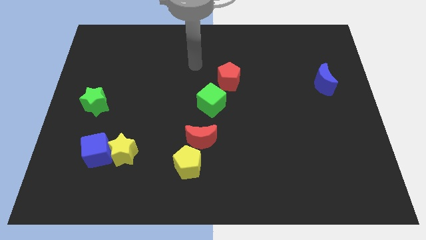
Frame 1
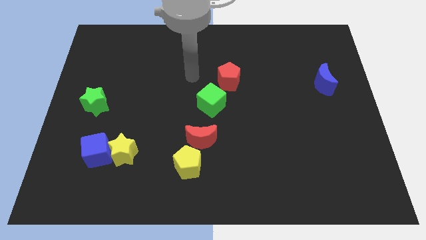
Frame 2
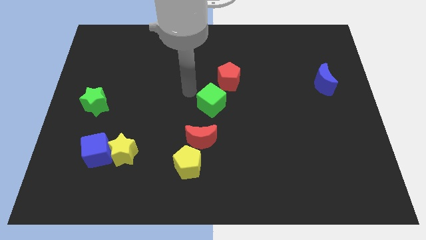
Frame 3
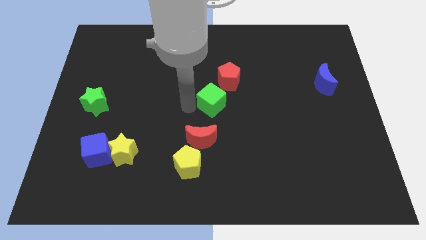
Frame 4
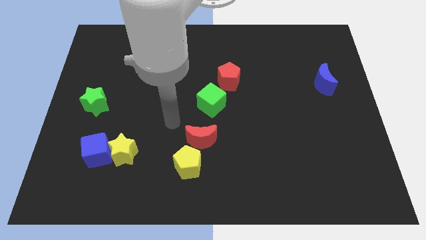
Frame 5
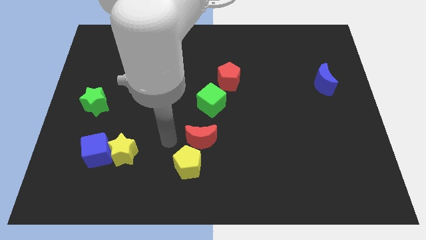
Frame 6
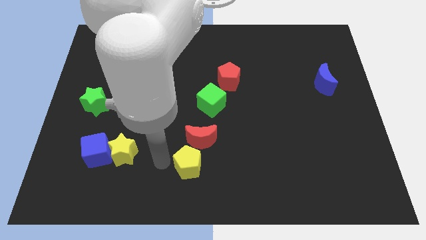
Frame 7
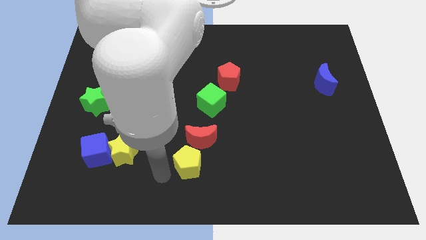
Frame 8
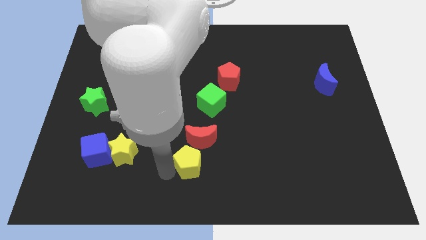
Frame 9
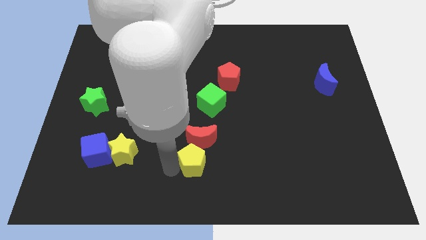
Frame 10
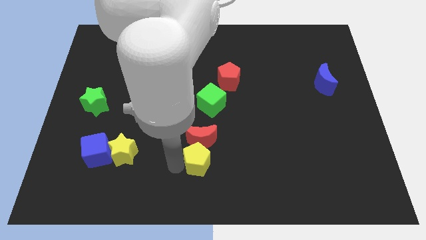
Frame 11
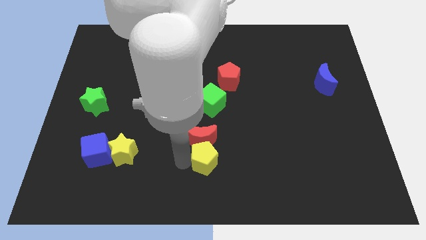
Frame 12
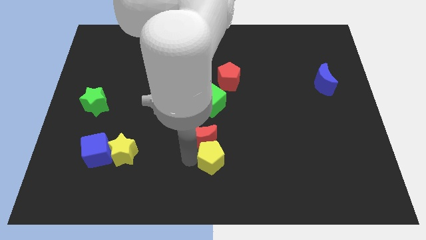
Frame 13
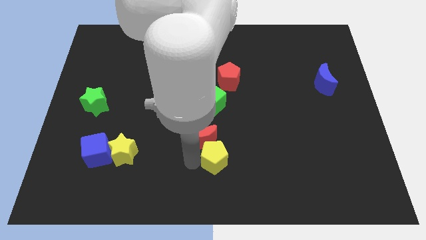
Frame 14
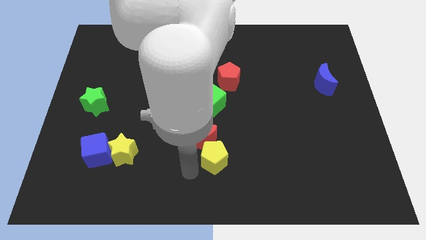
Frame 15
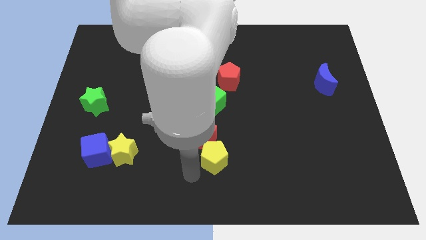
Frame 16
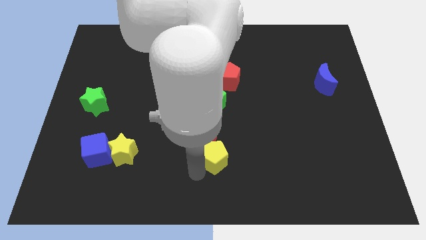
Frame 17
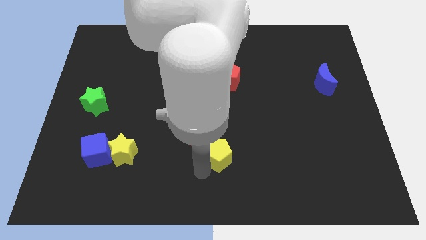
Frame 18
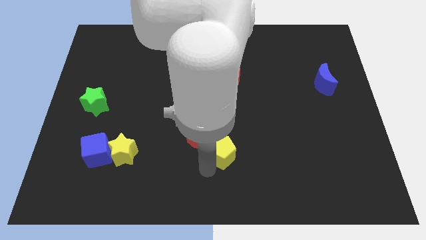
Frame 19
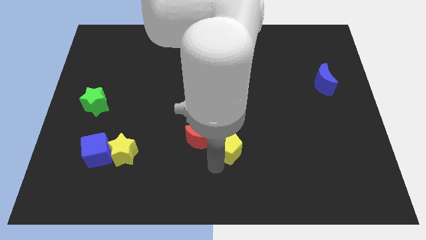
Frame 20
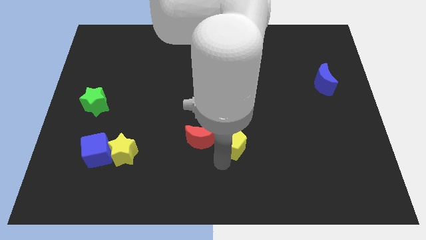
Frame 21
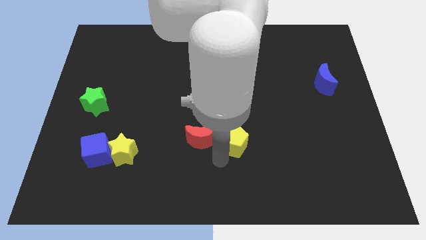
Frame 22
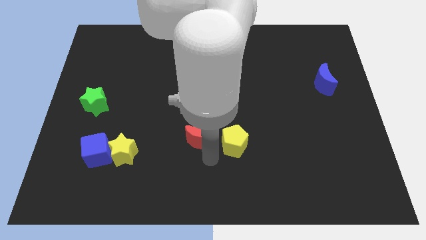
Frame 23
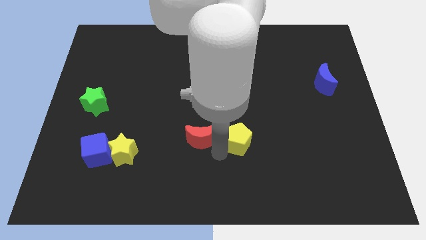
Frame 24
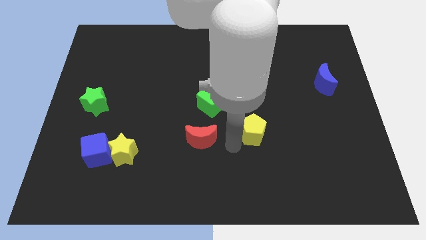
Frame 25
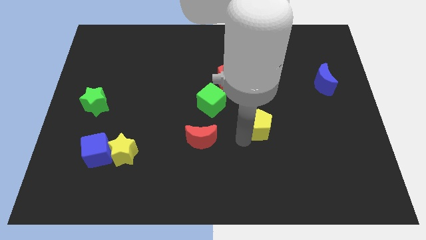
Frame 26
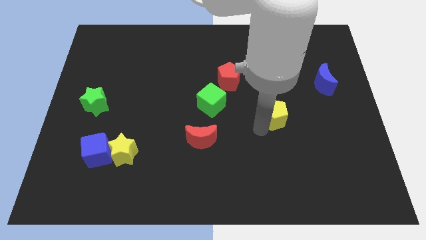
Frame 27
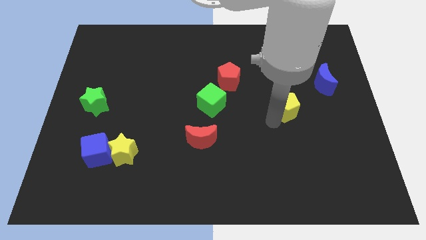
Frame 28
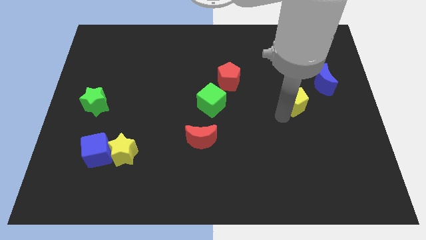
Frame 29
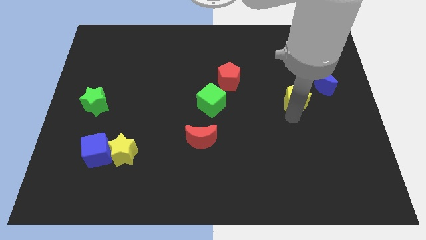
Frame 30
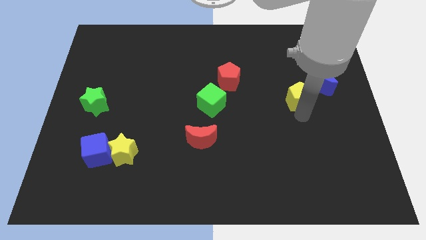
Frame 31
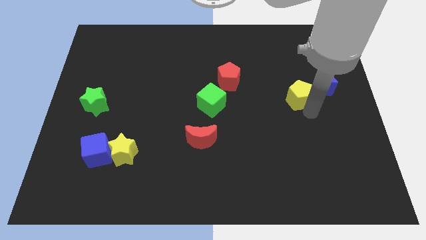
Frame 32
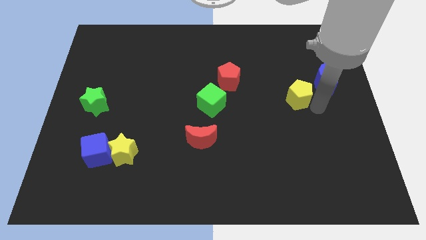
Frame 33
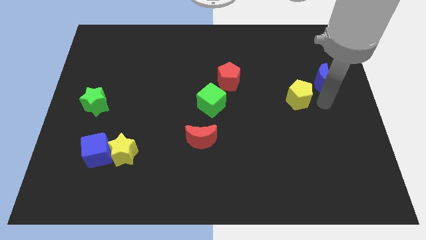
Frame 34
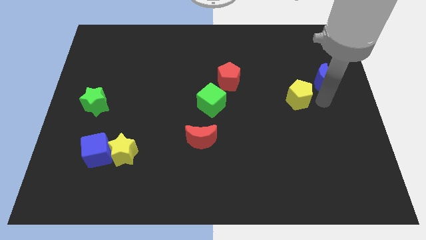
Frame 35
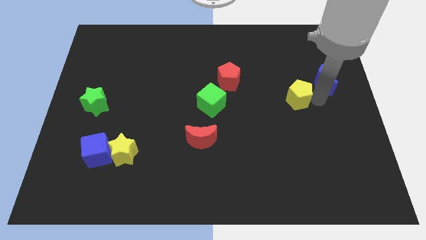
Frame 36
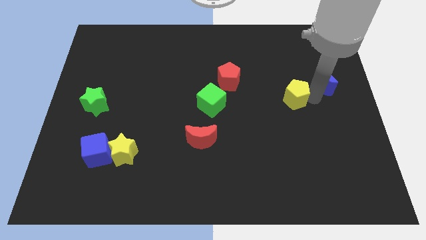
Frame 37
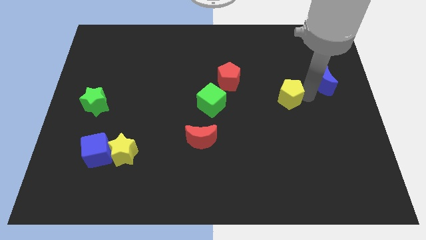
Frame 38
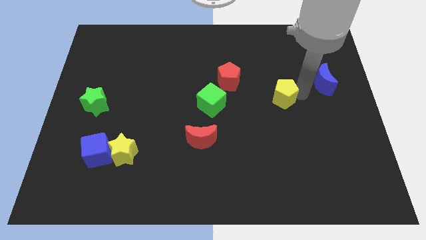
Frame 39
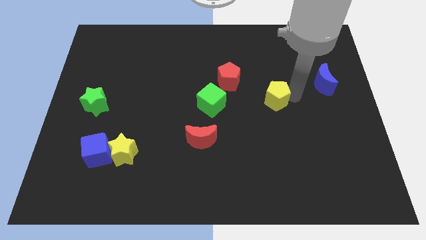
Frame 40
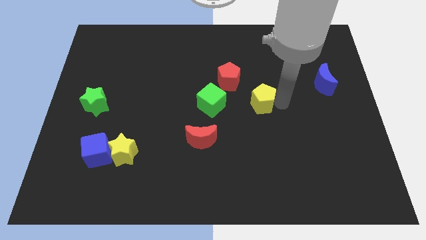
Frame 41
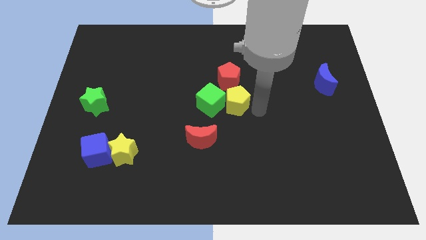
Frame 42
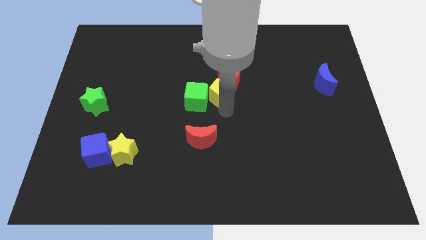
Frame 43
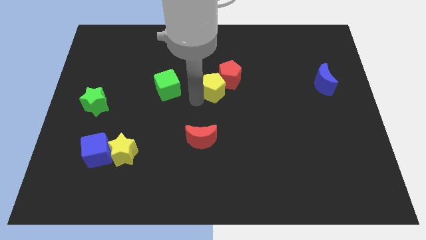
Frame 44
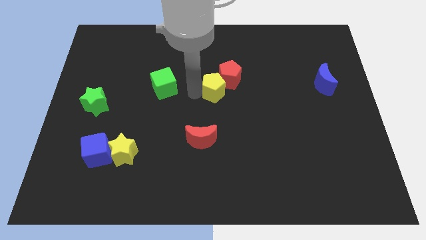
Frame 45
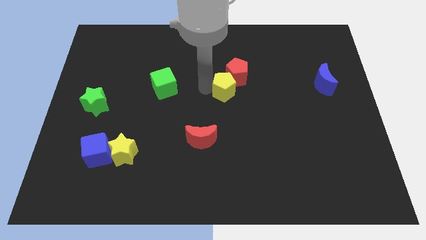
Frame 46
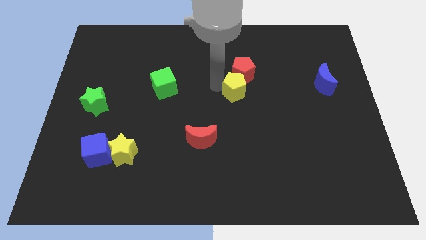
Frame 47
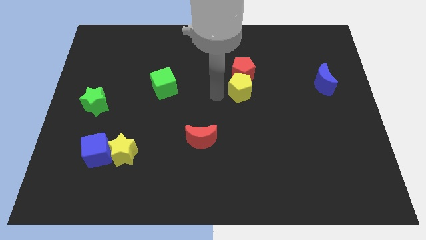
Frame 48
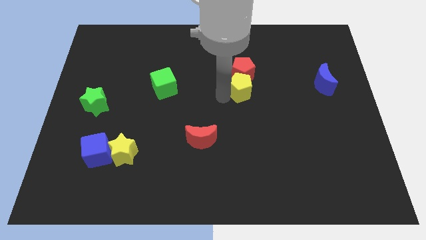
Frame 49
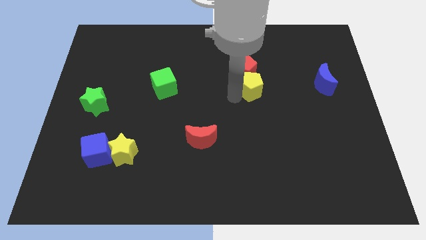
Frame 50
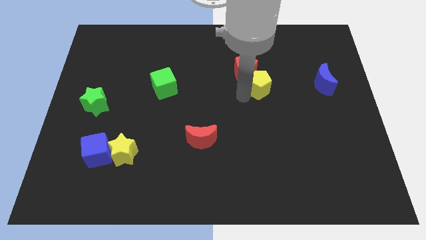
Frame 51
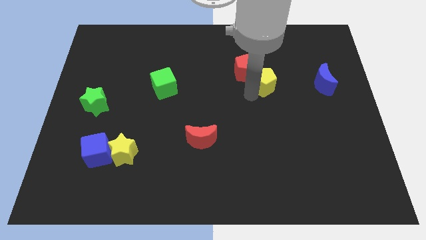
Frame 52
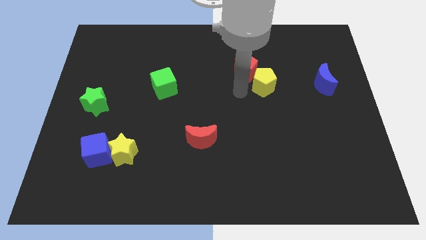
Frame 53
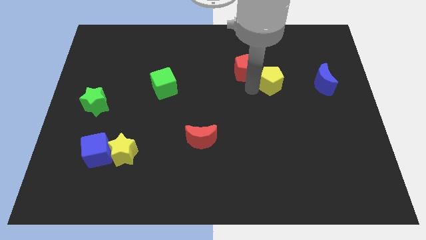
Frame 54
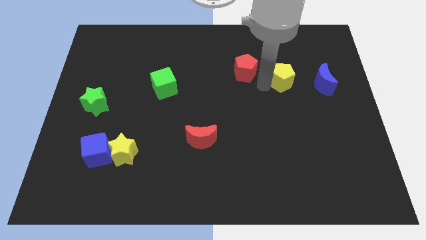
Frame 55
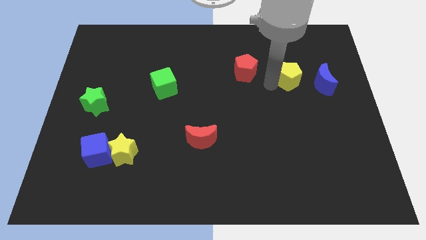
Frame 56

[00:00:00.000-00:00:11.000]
slide the yellow pentagon diagonally up and to the left of the blue moon

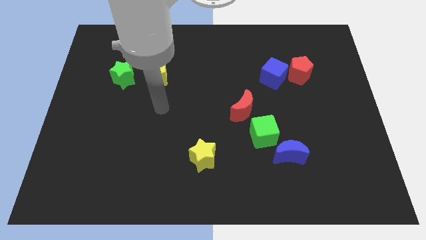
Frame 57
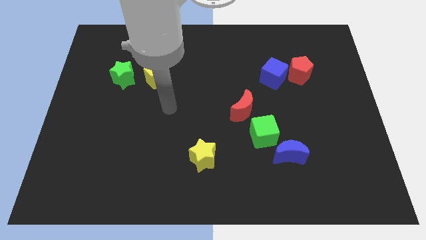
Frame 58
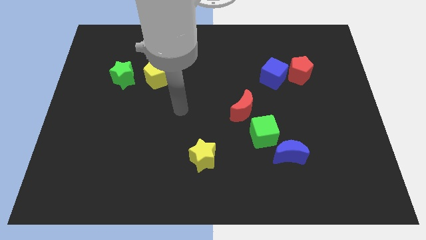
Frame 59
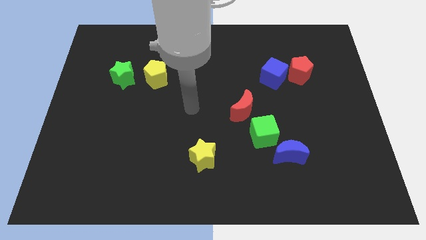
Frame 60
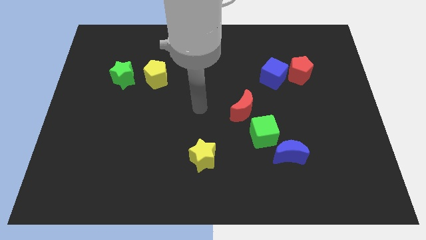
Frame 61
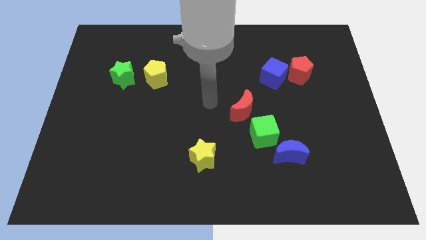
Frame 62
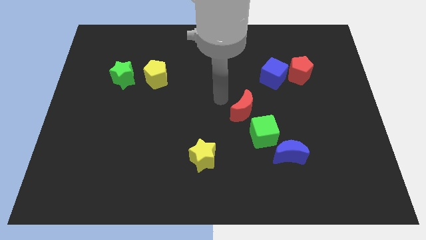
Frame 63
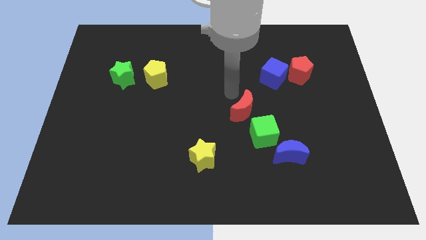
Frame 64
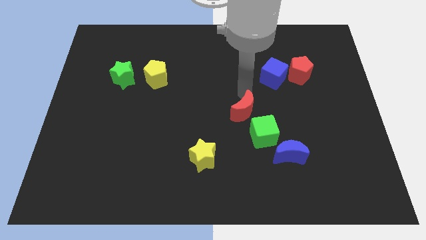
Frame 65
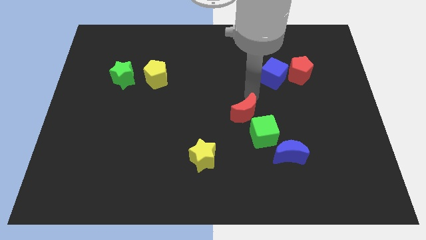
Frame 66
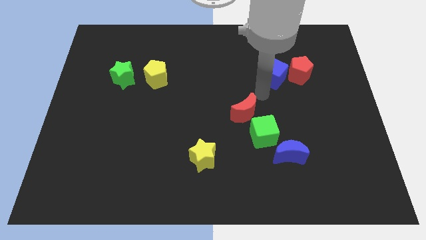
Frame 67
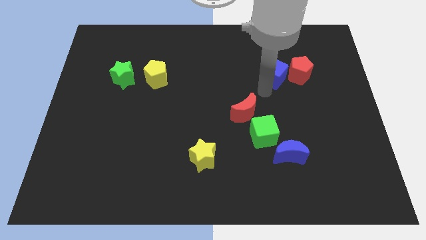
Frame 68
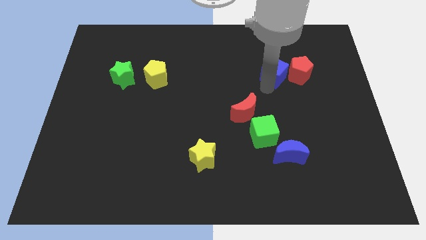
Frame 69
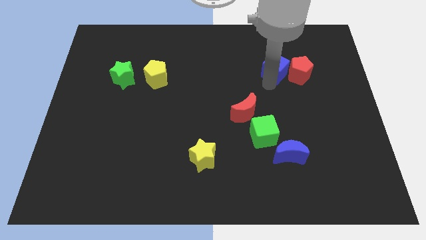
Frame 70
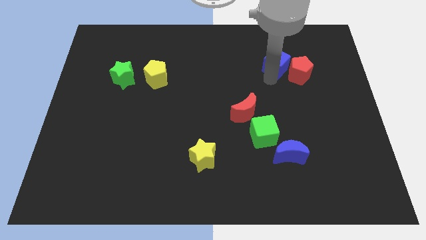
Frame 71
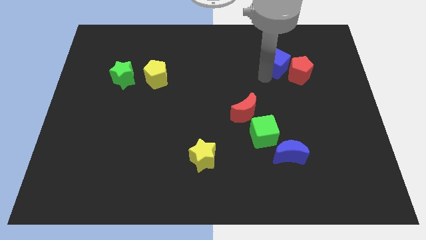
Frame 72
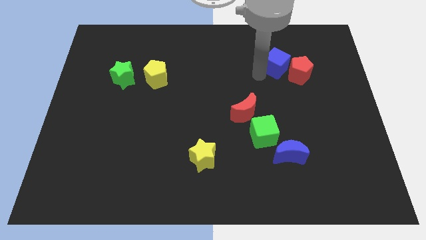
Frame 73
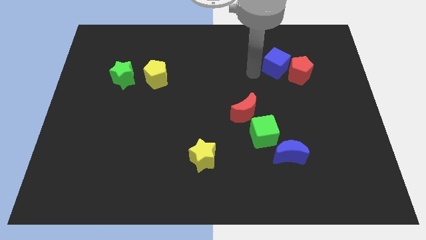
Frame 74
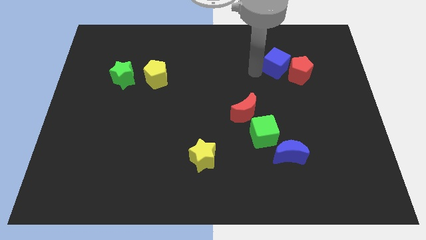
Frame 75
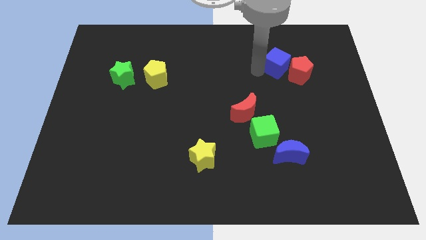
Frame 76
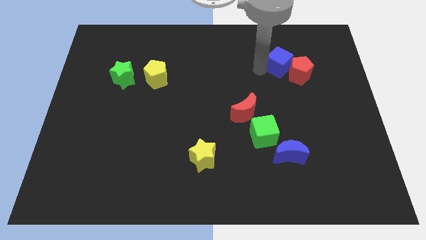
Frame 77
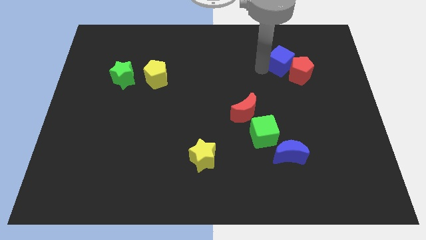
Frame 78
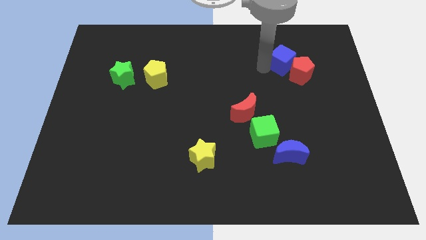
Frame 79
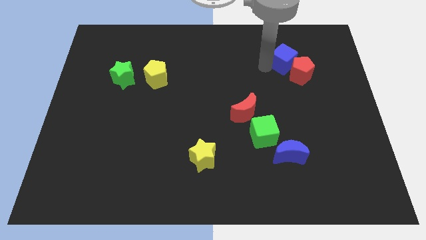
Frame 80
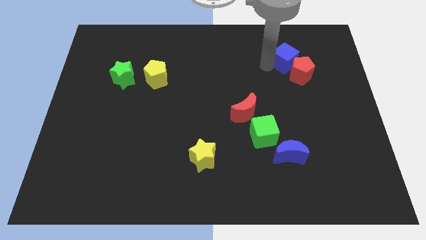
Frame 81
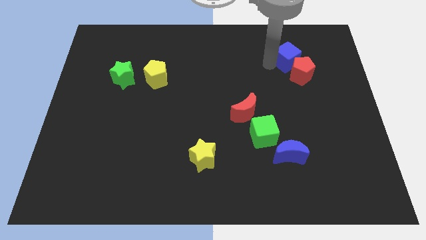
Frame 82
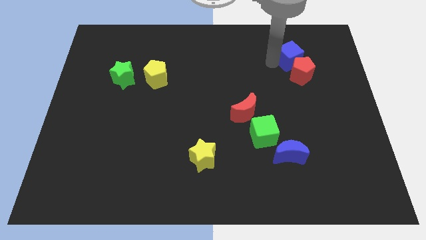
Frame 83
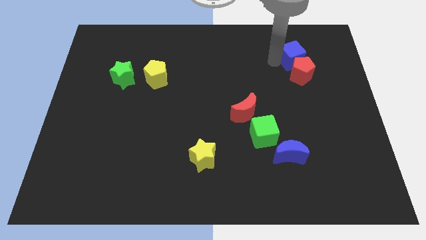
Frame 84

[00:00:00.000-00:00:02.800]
push the blue cube to the top right side of the red pentagon
